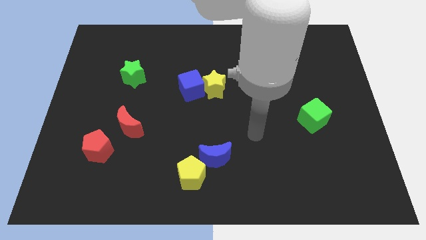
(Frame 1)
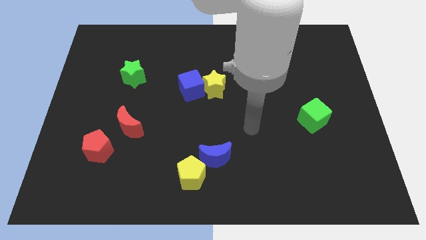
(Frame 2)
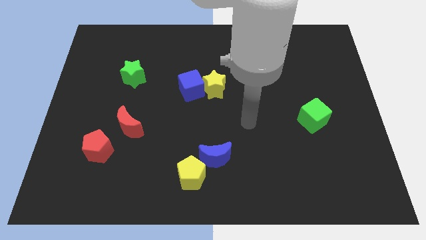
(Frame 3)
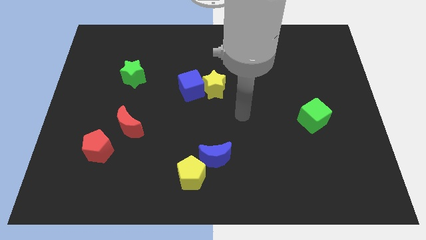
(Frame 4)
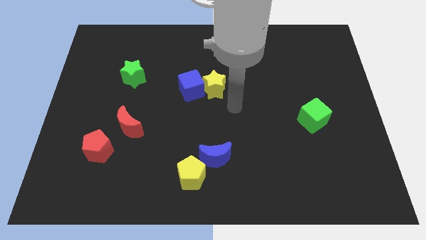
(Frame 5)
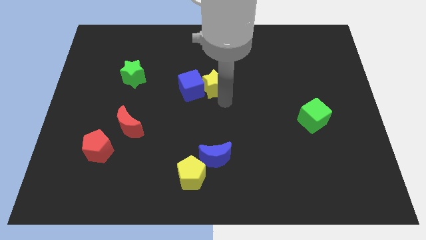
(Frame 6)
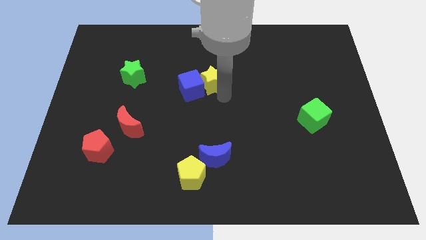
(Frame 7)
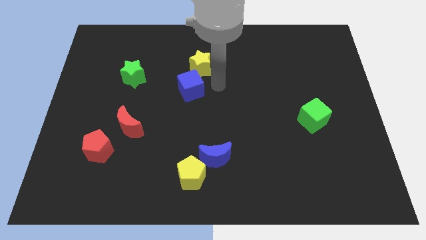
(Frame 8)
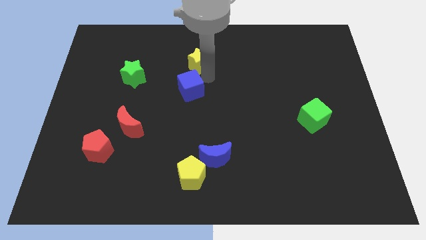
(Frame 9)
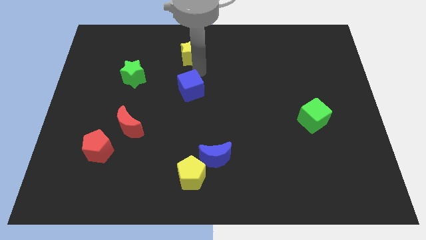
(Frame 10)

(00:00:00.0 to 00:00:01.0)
separate the blue cube from the yellow star

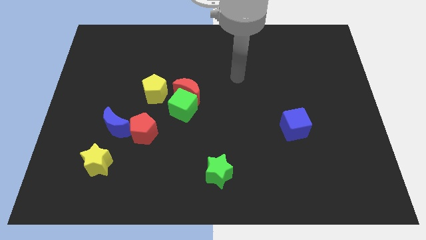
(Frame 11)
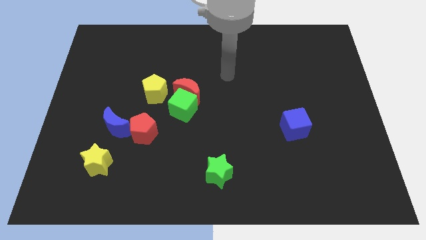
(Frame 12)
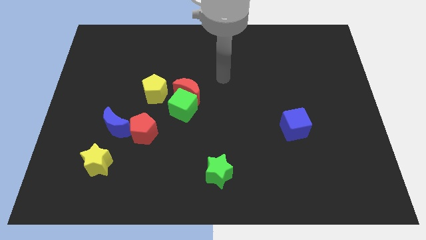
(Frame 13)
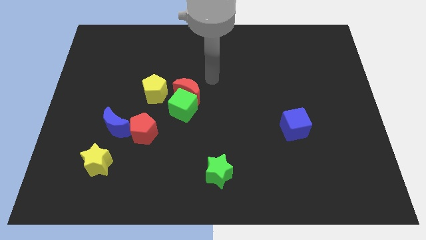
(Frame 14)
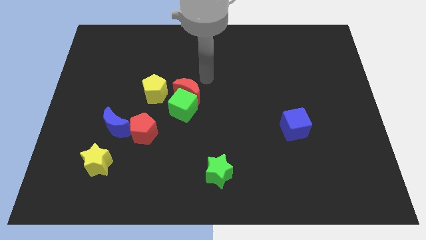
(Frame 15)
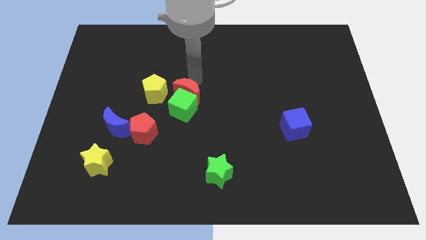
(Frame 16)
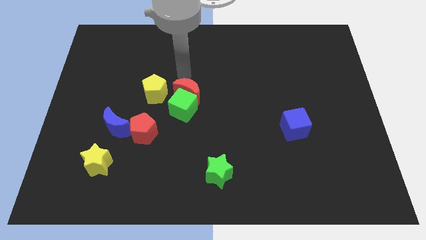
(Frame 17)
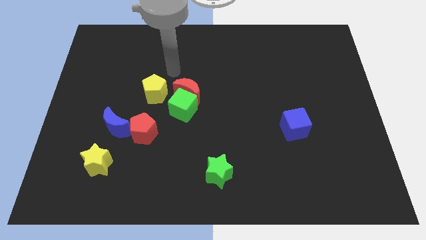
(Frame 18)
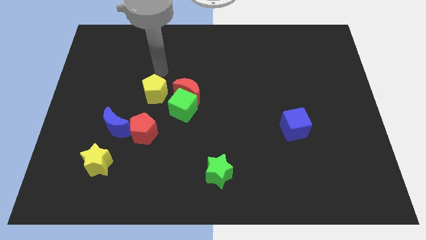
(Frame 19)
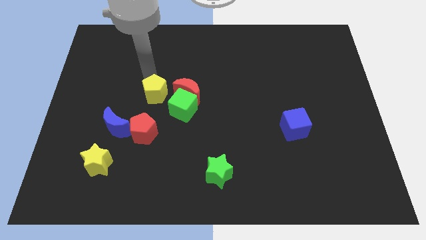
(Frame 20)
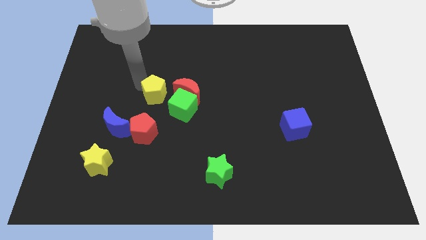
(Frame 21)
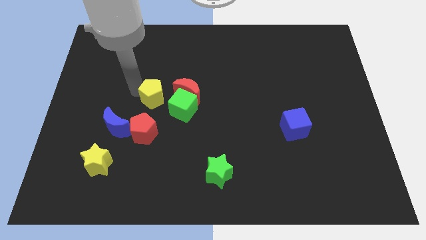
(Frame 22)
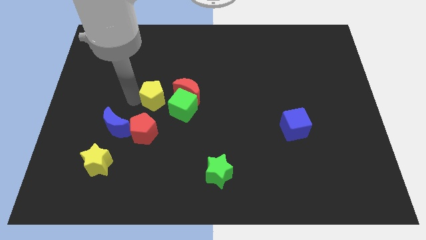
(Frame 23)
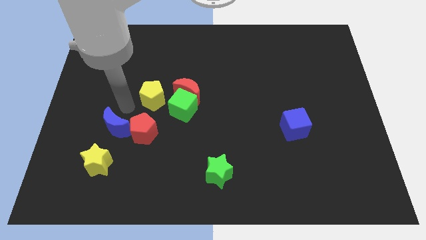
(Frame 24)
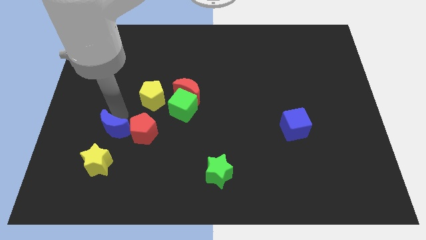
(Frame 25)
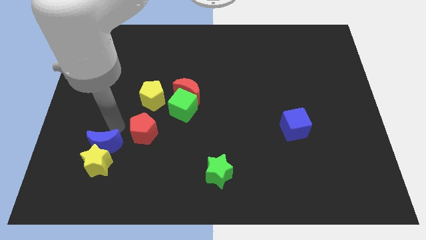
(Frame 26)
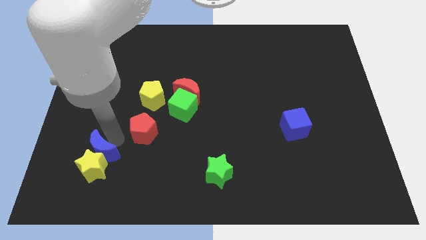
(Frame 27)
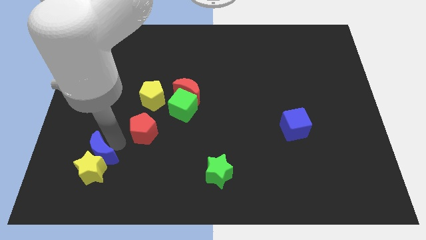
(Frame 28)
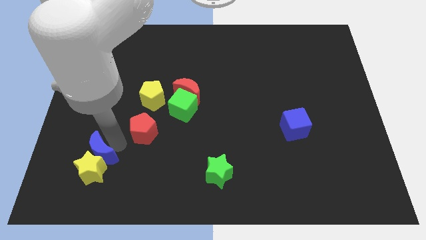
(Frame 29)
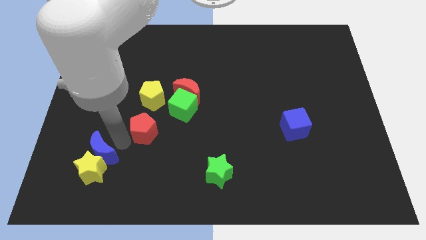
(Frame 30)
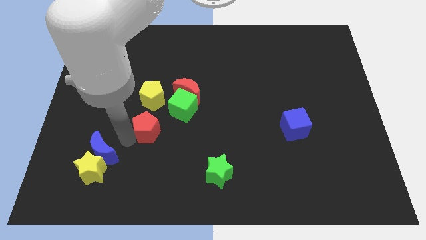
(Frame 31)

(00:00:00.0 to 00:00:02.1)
separate the red pentagon from the blue moon

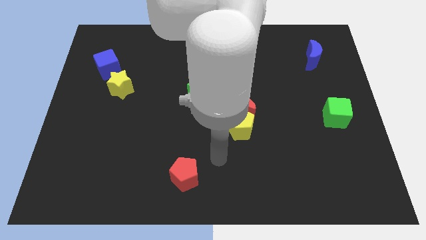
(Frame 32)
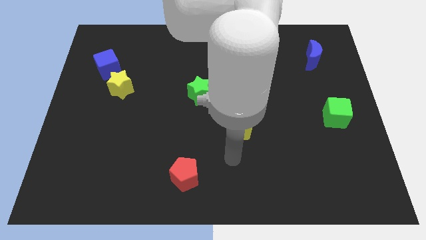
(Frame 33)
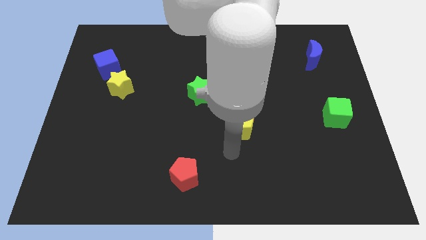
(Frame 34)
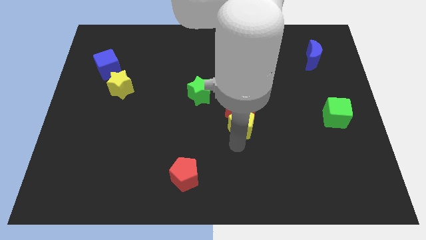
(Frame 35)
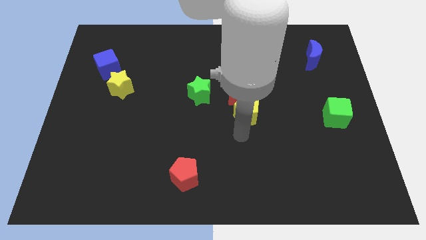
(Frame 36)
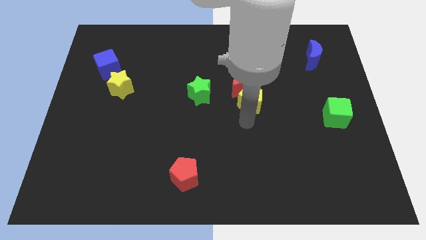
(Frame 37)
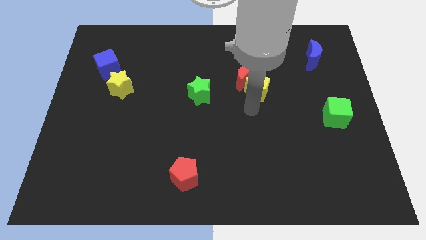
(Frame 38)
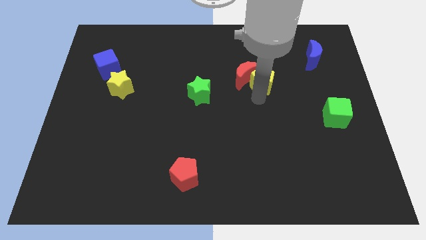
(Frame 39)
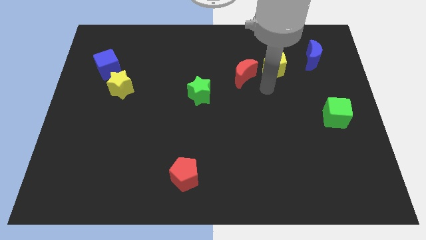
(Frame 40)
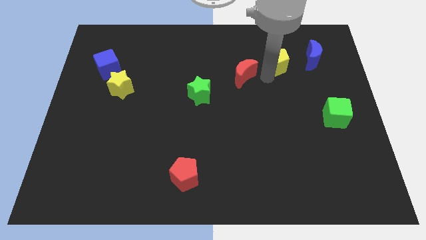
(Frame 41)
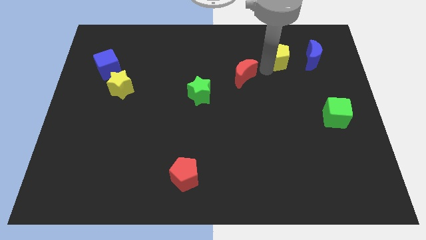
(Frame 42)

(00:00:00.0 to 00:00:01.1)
pull the red moon apart from the yellow pentagon

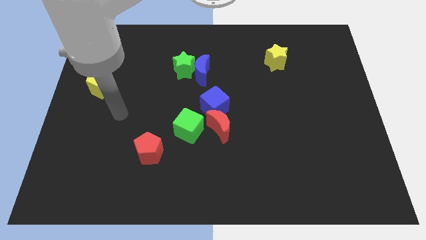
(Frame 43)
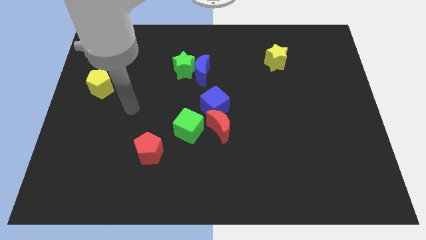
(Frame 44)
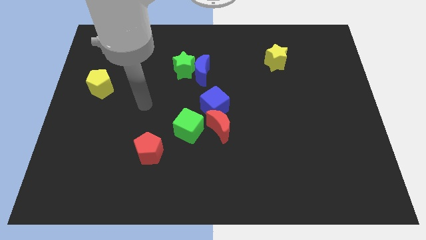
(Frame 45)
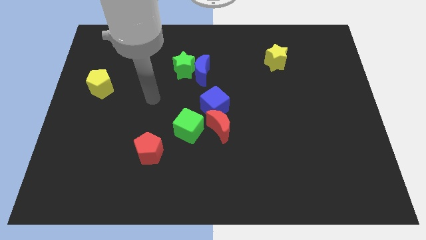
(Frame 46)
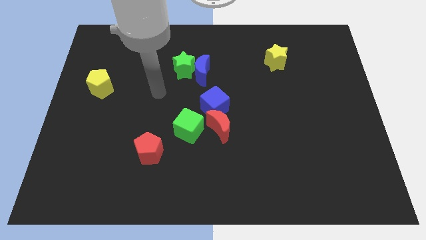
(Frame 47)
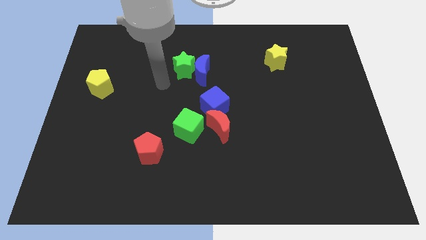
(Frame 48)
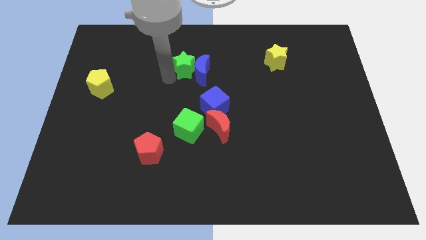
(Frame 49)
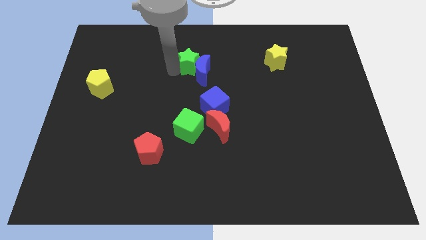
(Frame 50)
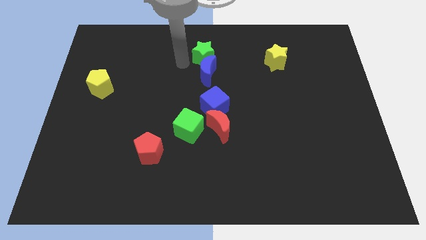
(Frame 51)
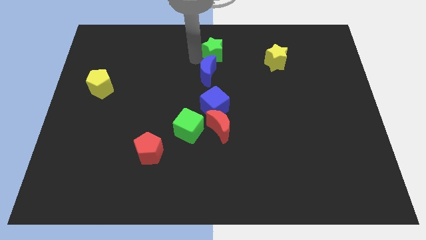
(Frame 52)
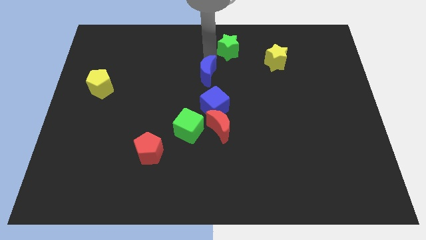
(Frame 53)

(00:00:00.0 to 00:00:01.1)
separate the blue moon from the green star

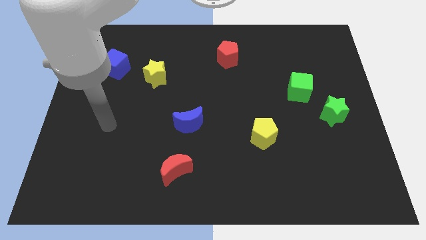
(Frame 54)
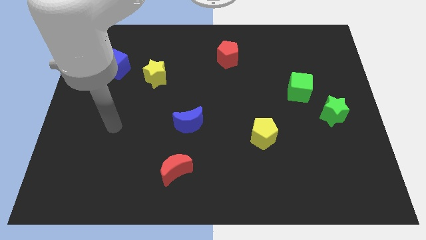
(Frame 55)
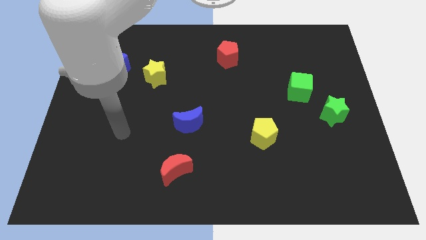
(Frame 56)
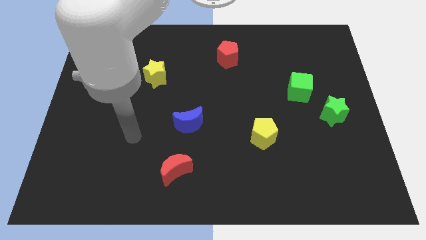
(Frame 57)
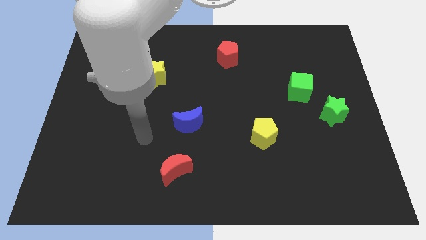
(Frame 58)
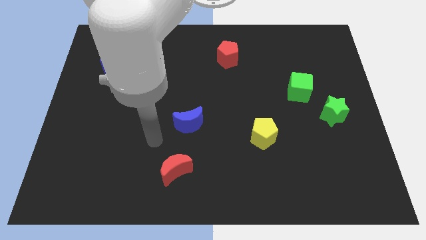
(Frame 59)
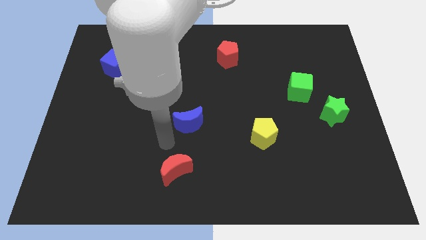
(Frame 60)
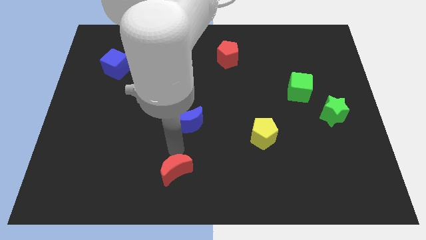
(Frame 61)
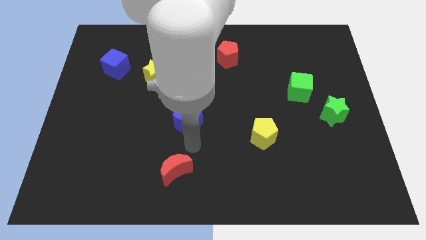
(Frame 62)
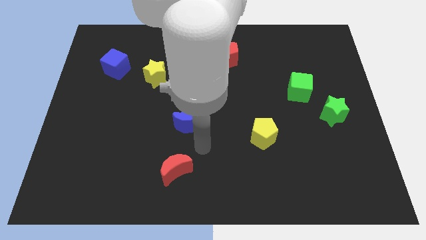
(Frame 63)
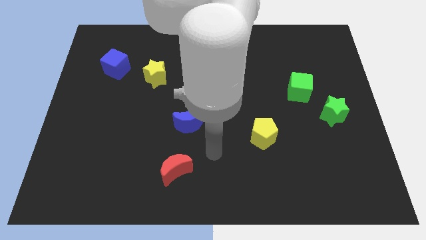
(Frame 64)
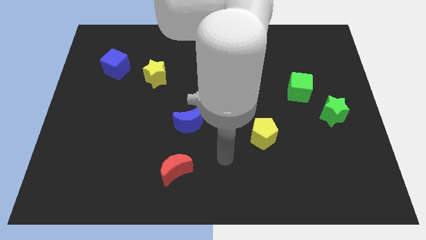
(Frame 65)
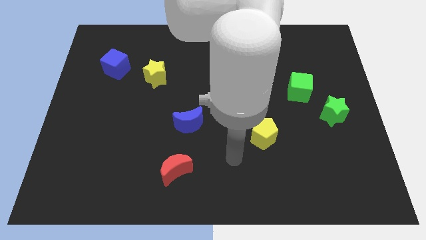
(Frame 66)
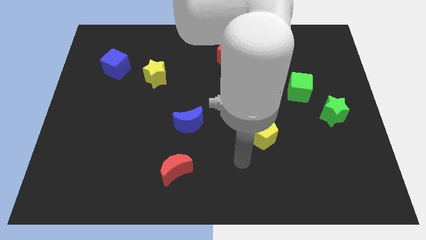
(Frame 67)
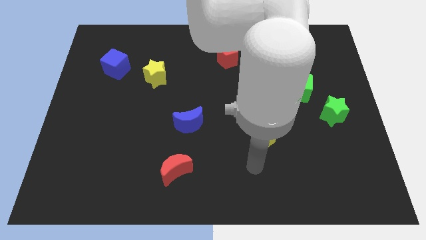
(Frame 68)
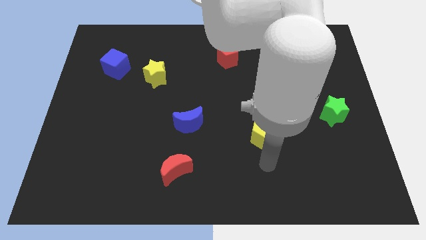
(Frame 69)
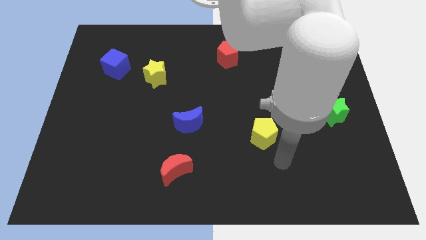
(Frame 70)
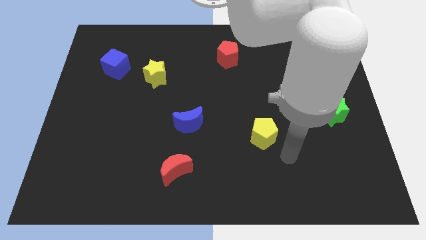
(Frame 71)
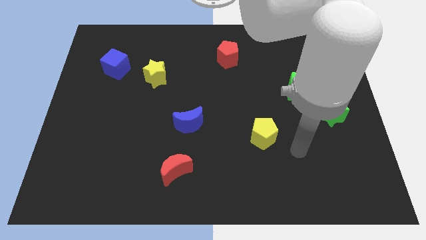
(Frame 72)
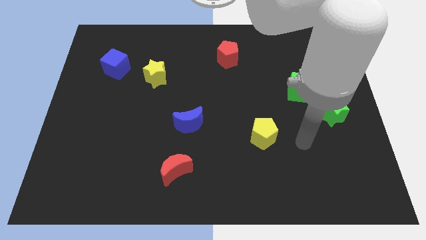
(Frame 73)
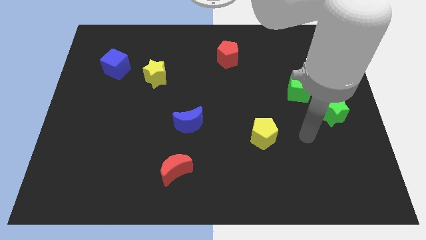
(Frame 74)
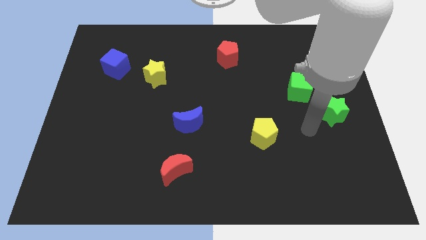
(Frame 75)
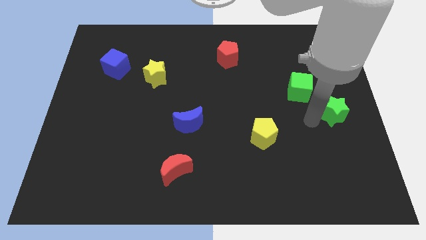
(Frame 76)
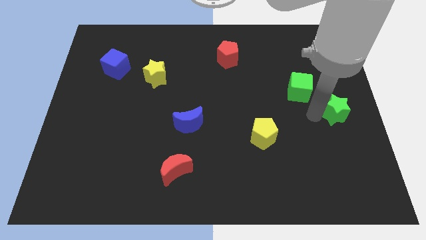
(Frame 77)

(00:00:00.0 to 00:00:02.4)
separate the green cube from the green star

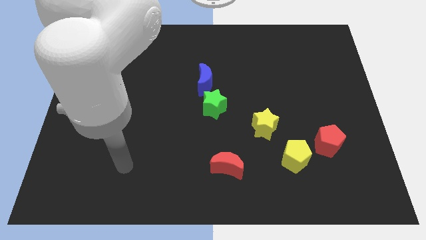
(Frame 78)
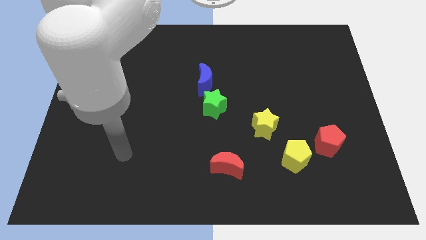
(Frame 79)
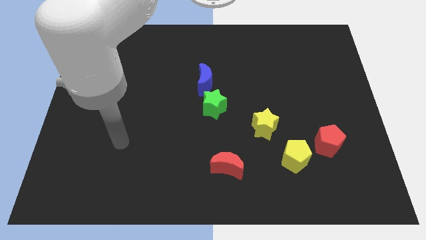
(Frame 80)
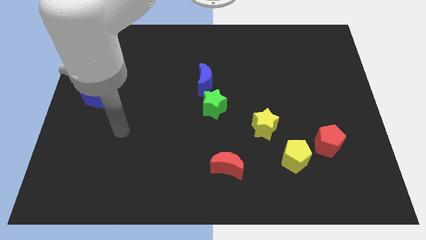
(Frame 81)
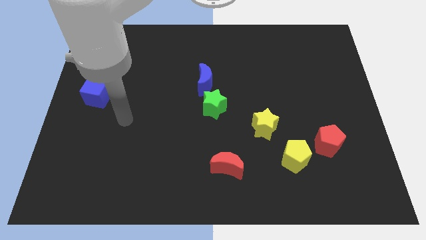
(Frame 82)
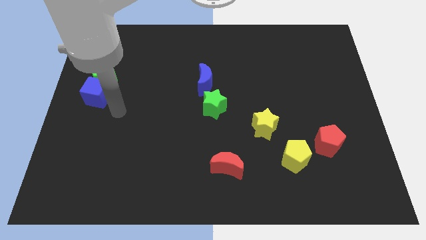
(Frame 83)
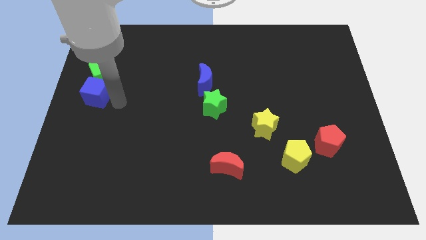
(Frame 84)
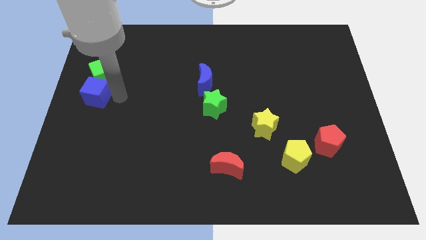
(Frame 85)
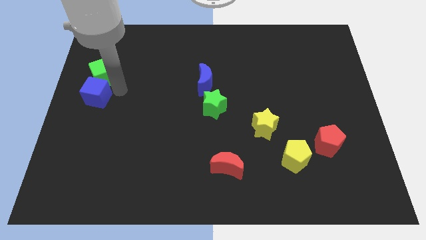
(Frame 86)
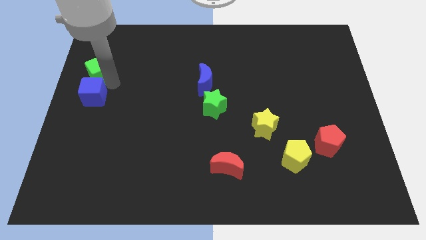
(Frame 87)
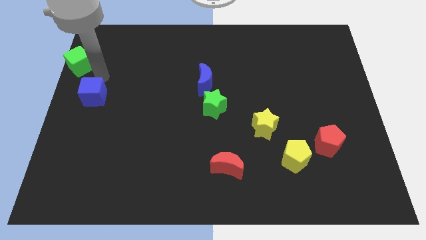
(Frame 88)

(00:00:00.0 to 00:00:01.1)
pull the blue cube apart from the green cube

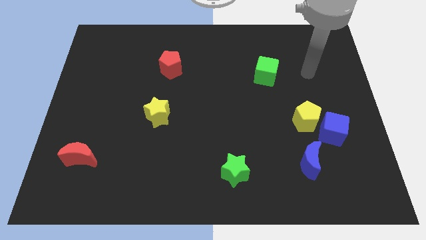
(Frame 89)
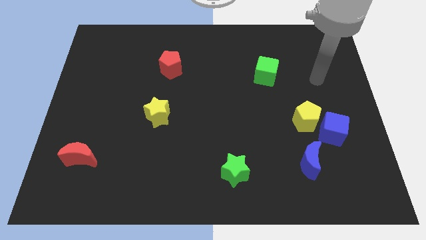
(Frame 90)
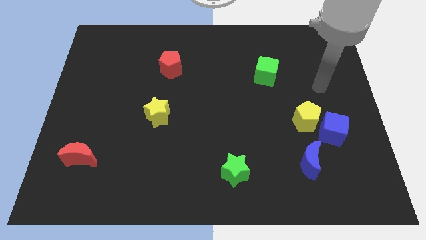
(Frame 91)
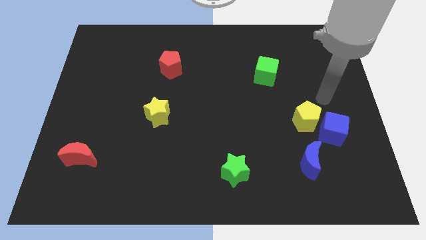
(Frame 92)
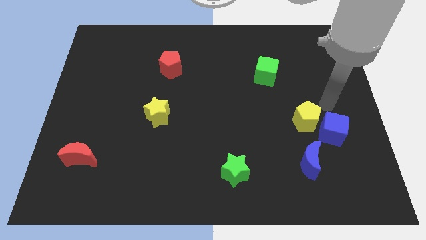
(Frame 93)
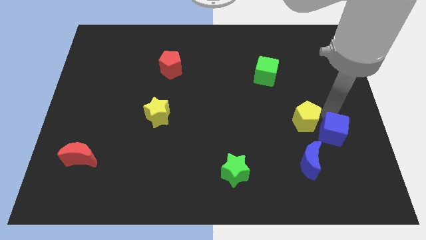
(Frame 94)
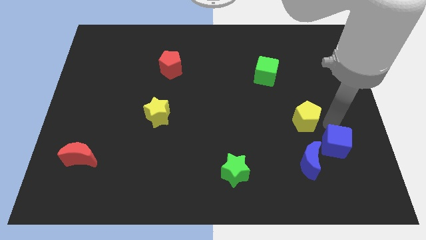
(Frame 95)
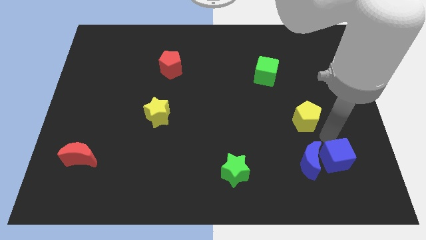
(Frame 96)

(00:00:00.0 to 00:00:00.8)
separate the yellow pentagon from the blue cube
